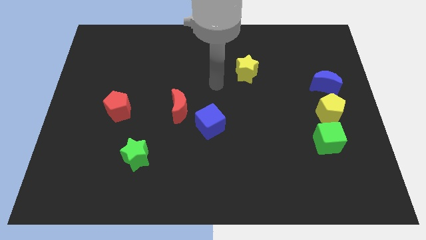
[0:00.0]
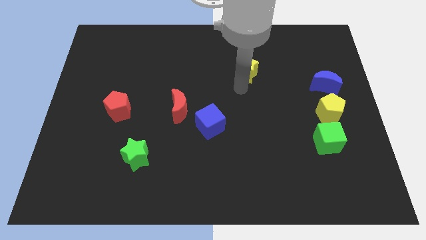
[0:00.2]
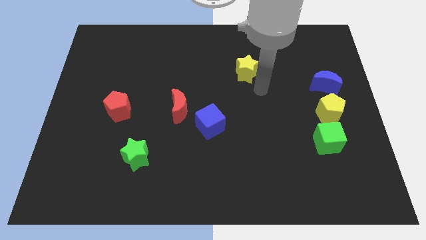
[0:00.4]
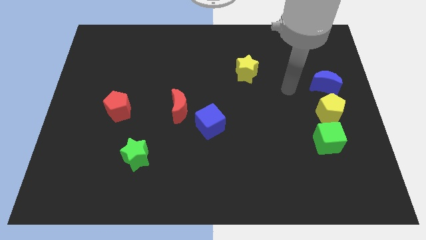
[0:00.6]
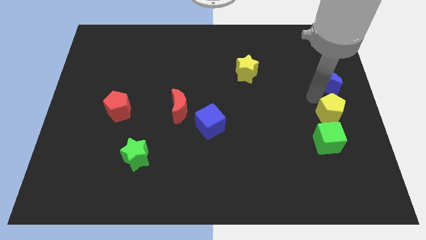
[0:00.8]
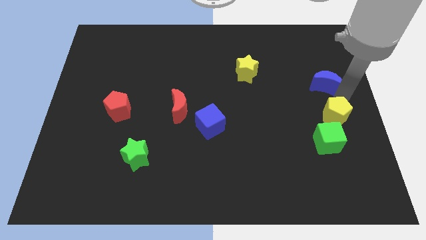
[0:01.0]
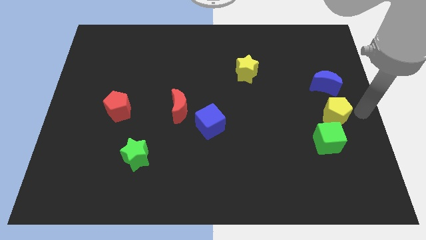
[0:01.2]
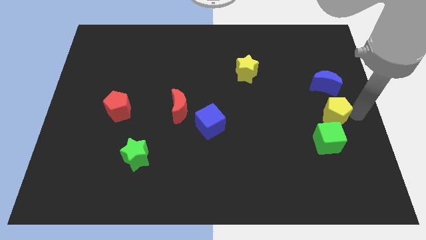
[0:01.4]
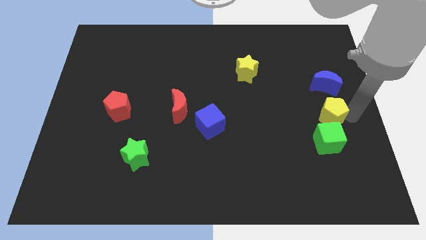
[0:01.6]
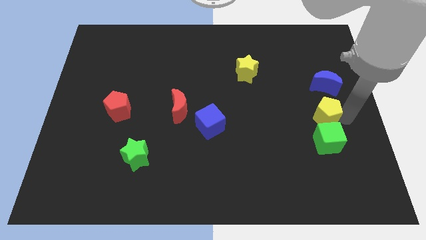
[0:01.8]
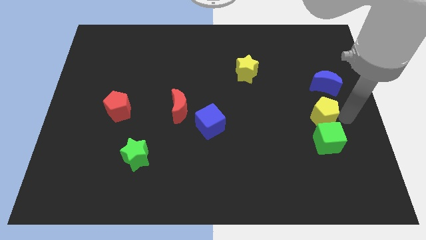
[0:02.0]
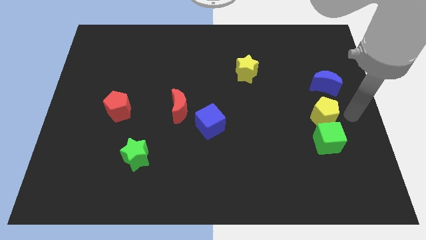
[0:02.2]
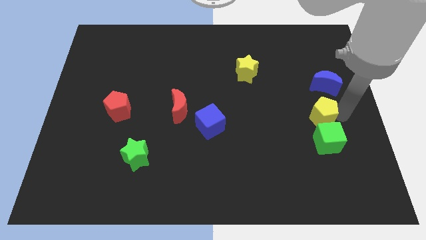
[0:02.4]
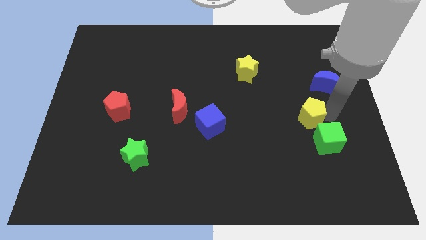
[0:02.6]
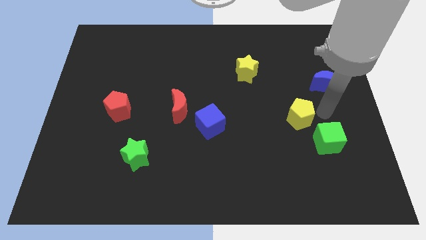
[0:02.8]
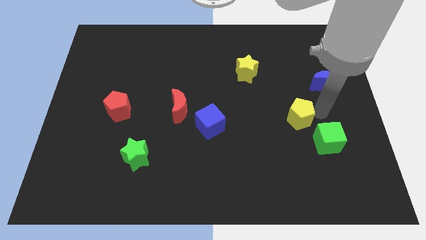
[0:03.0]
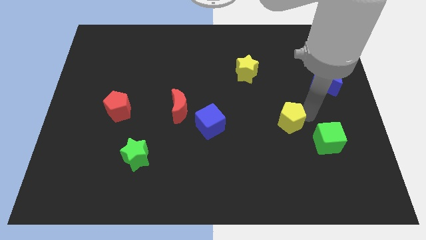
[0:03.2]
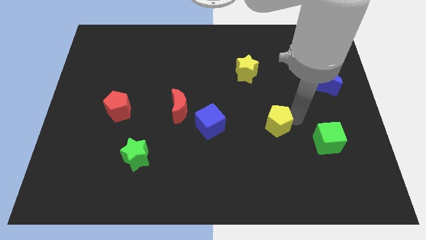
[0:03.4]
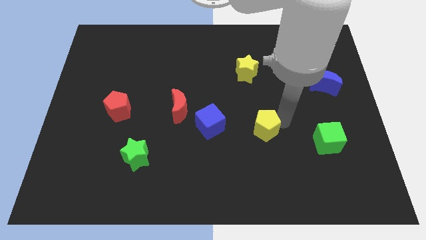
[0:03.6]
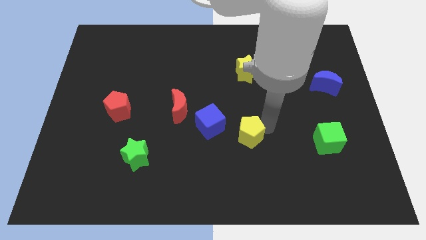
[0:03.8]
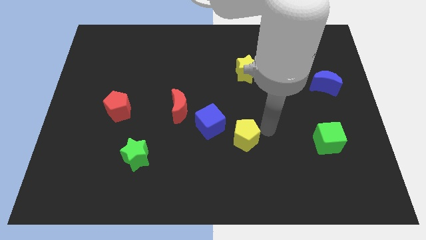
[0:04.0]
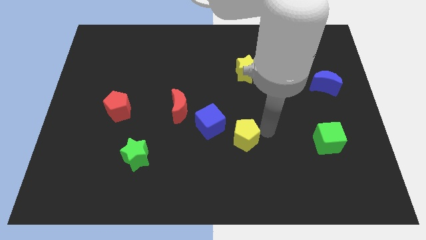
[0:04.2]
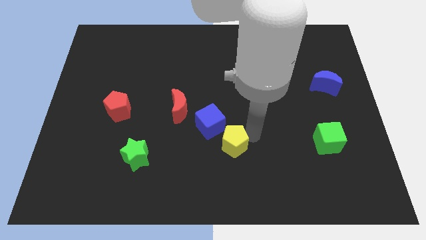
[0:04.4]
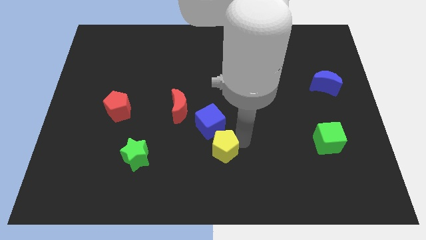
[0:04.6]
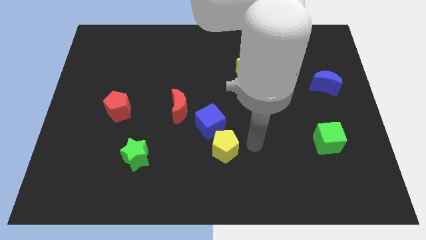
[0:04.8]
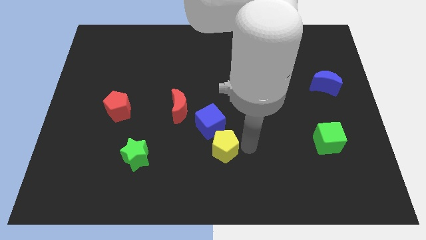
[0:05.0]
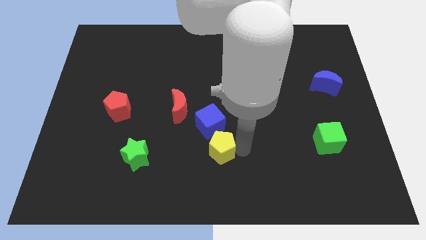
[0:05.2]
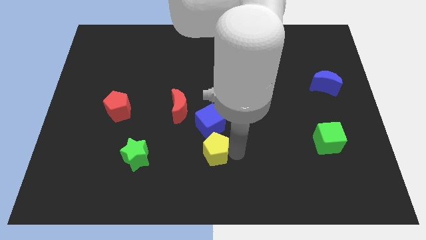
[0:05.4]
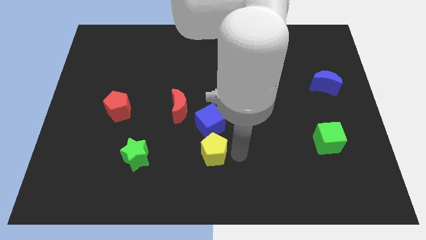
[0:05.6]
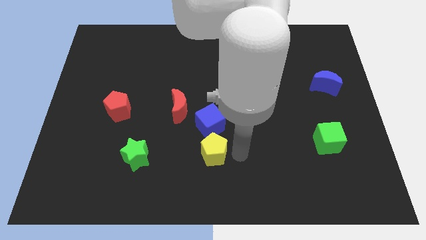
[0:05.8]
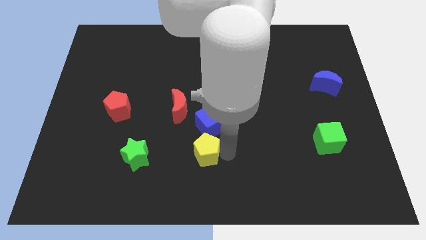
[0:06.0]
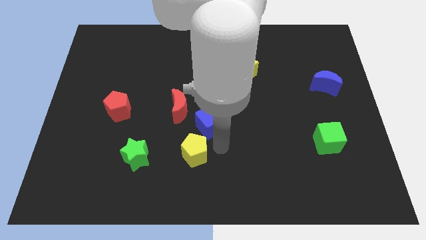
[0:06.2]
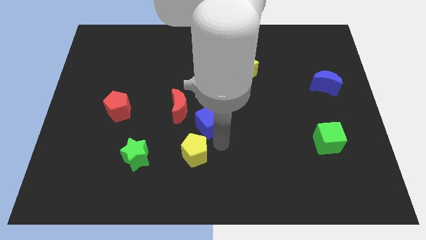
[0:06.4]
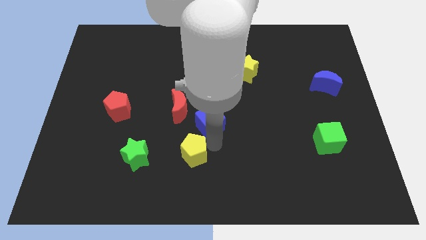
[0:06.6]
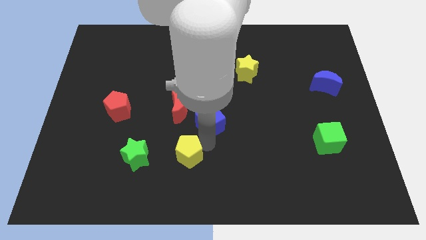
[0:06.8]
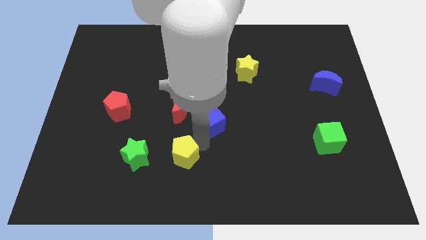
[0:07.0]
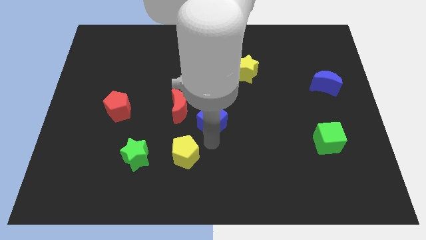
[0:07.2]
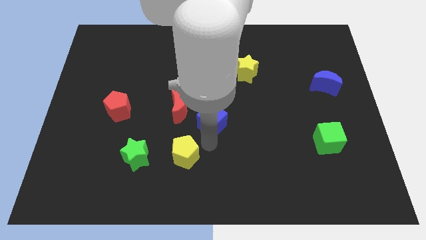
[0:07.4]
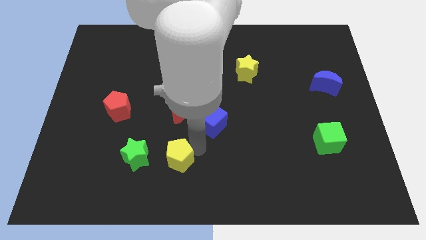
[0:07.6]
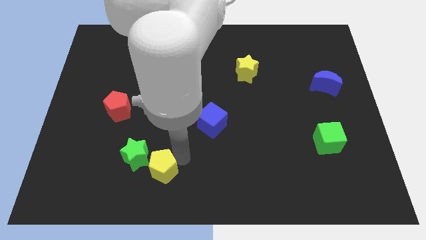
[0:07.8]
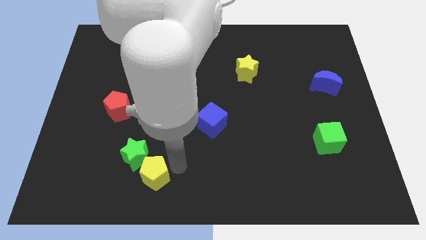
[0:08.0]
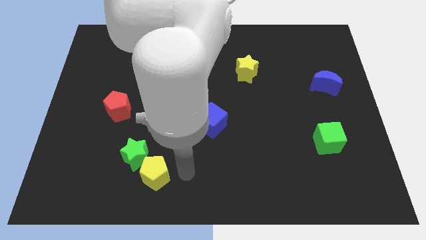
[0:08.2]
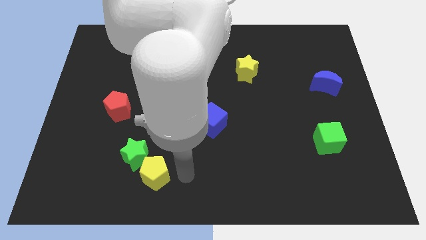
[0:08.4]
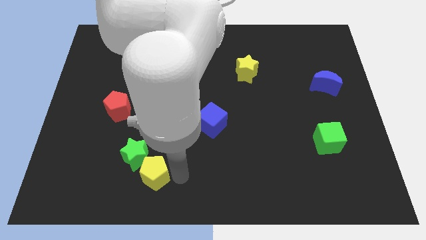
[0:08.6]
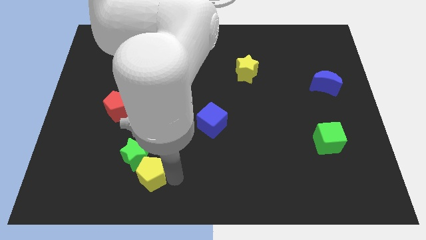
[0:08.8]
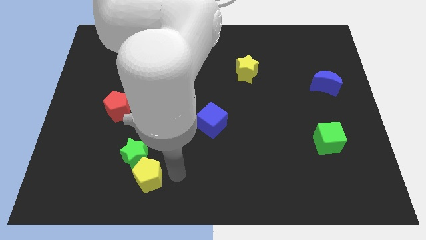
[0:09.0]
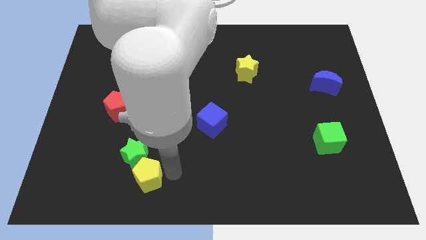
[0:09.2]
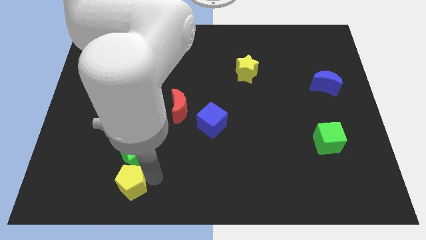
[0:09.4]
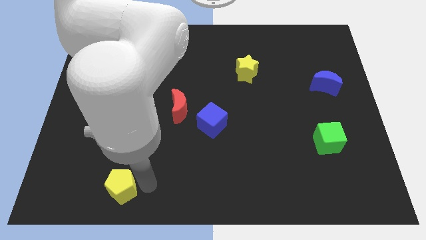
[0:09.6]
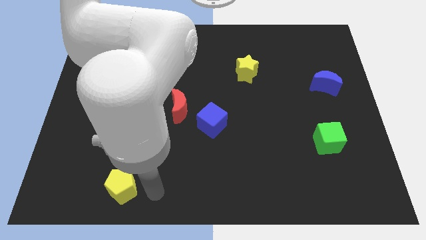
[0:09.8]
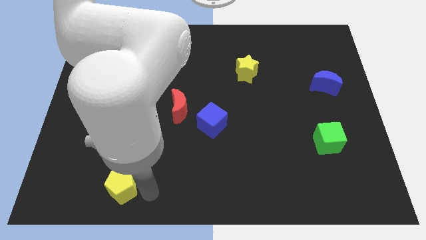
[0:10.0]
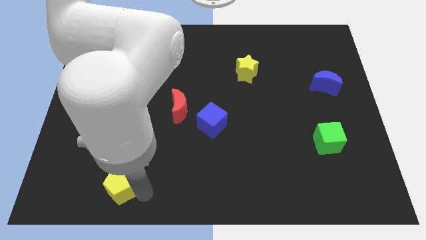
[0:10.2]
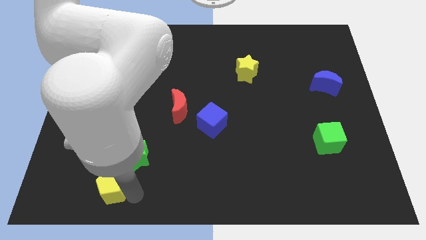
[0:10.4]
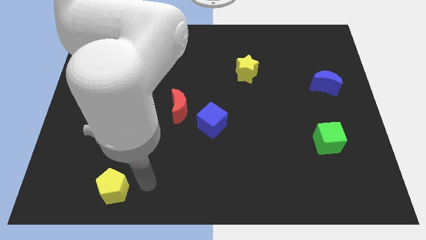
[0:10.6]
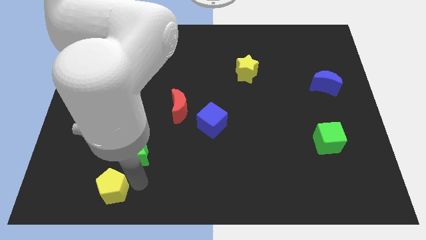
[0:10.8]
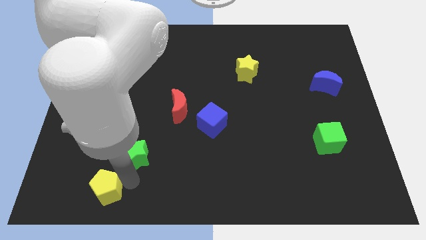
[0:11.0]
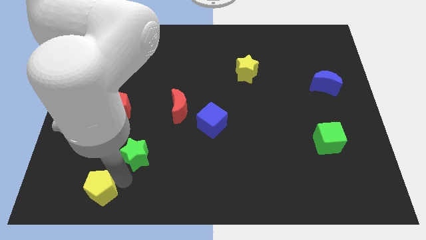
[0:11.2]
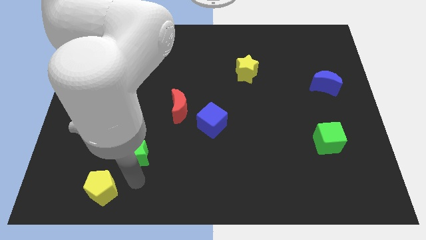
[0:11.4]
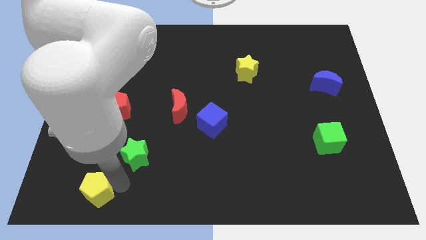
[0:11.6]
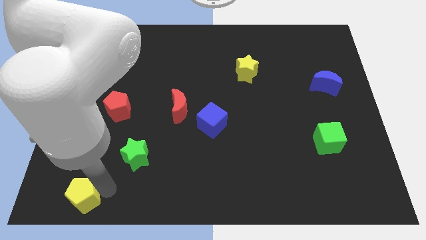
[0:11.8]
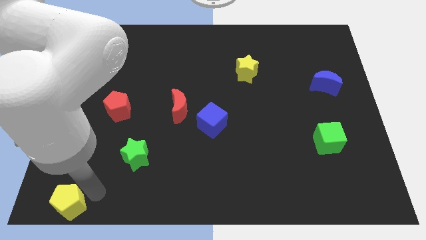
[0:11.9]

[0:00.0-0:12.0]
put the yellow pentagon to the bottom left corner
